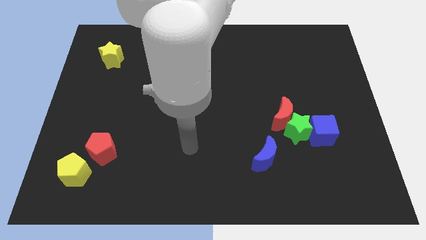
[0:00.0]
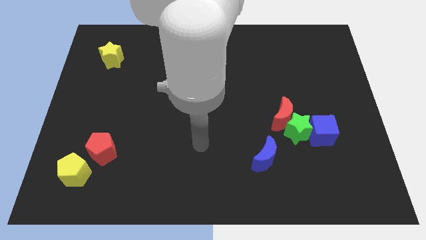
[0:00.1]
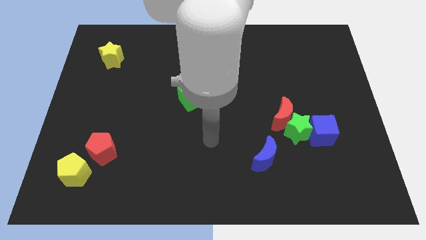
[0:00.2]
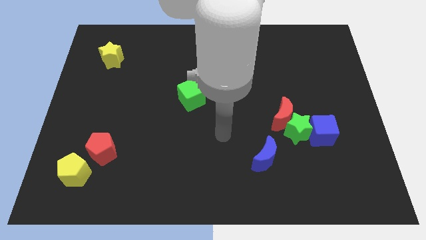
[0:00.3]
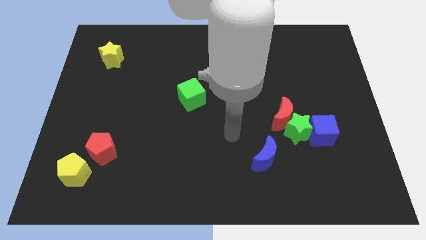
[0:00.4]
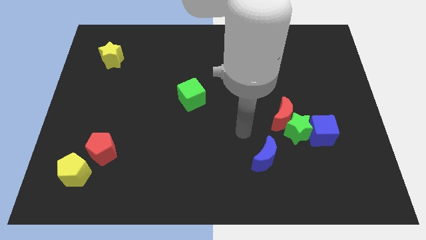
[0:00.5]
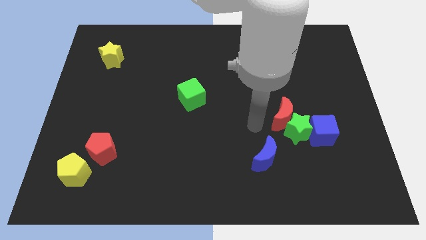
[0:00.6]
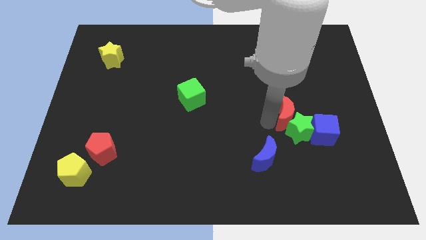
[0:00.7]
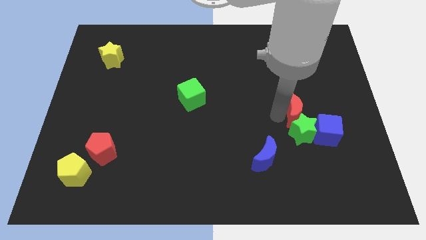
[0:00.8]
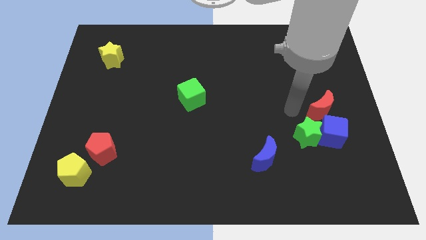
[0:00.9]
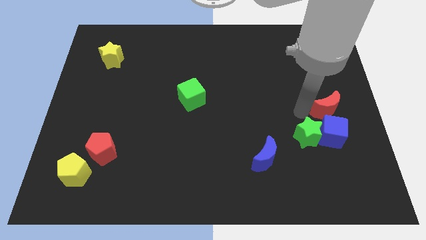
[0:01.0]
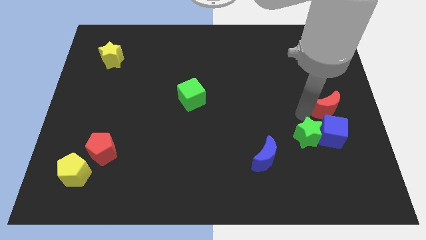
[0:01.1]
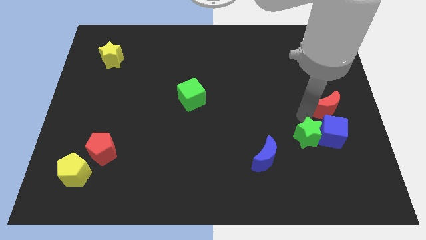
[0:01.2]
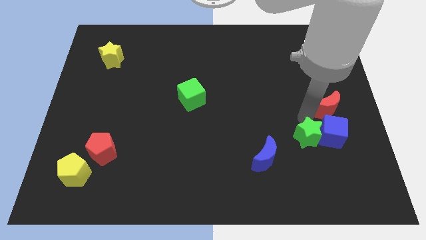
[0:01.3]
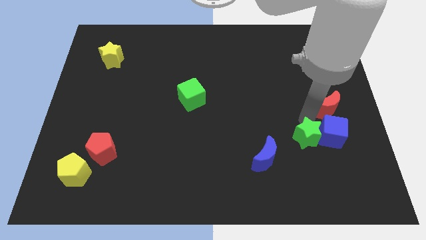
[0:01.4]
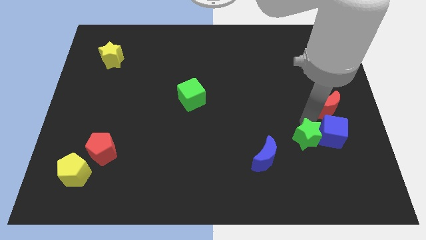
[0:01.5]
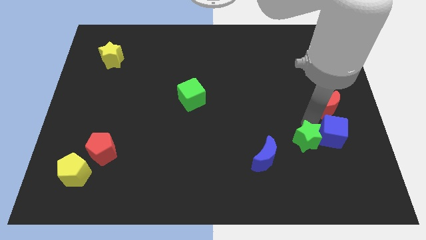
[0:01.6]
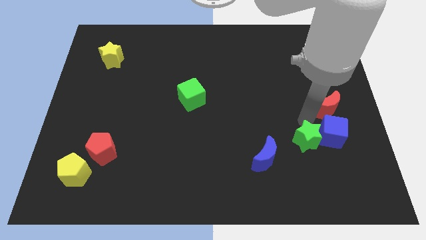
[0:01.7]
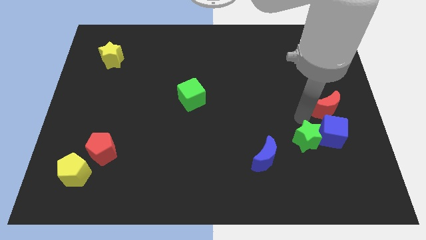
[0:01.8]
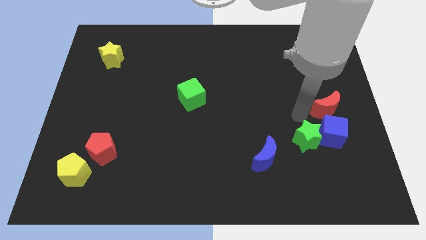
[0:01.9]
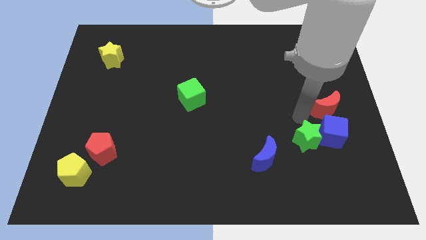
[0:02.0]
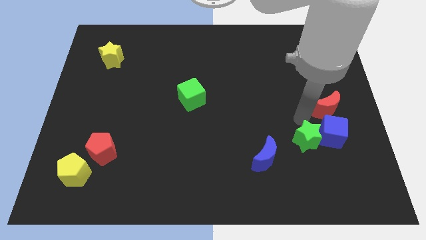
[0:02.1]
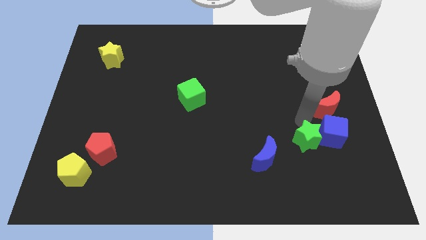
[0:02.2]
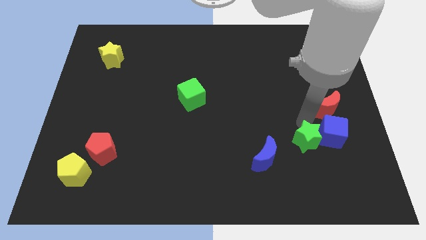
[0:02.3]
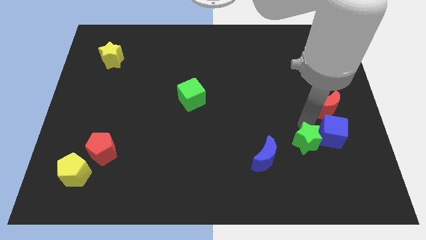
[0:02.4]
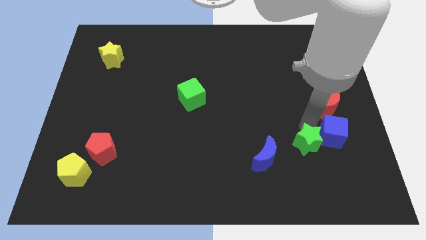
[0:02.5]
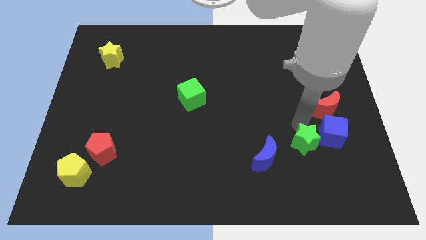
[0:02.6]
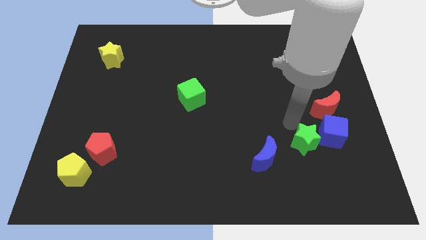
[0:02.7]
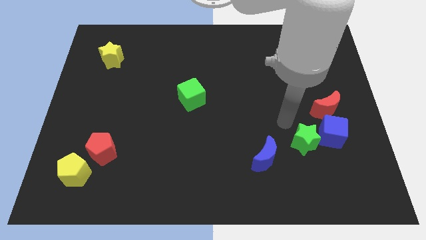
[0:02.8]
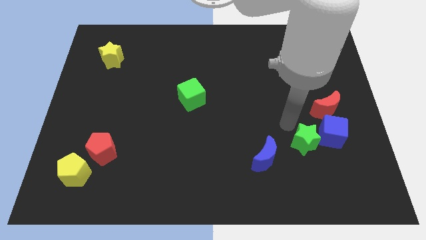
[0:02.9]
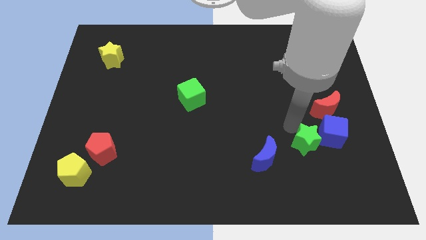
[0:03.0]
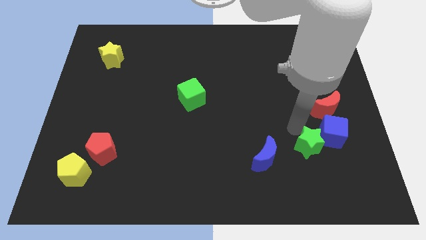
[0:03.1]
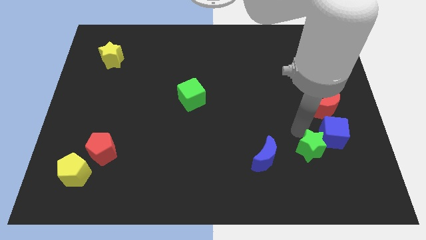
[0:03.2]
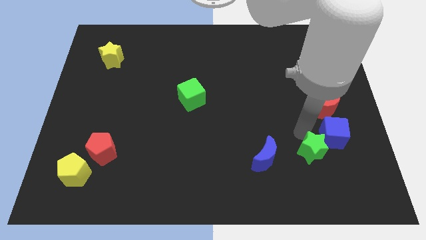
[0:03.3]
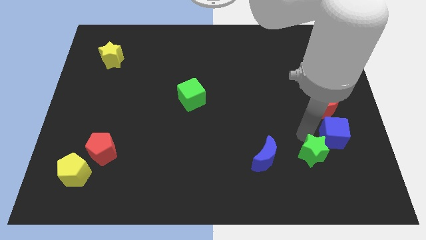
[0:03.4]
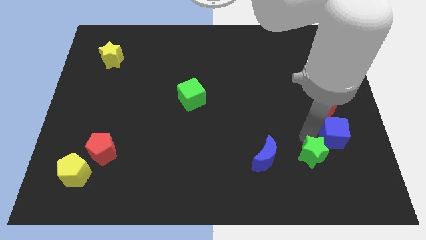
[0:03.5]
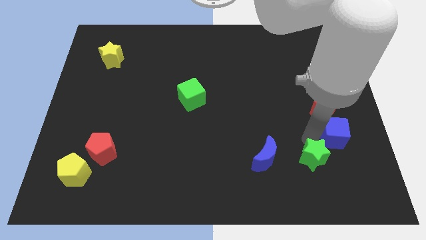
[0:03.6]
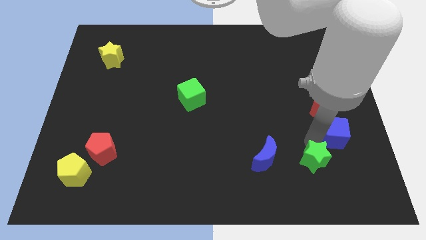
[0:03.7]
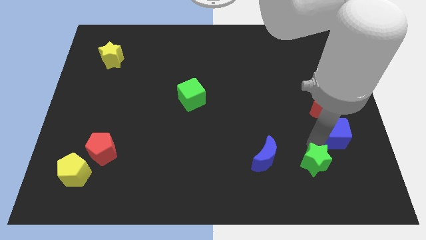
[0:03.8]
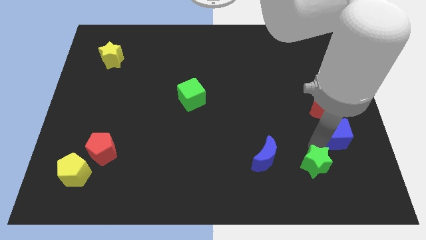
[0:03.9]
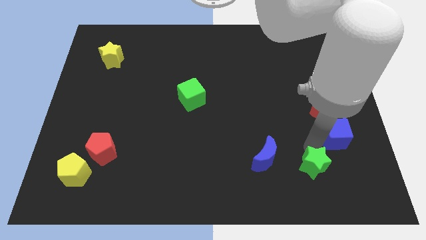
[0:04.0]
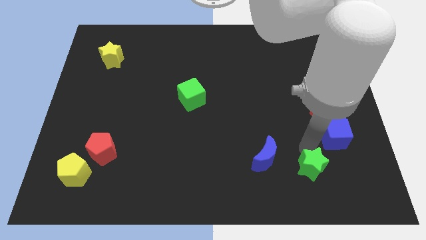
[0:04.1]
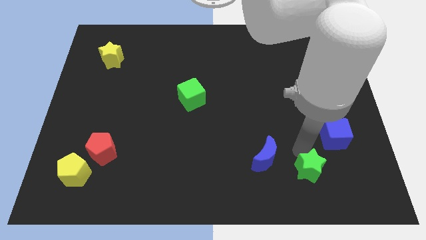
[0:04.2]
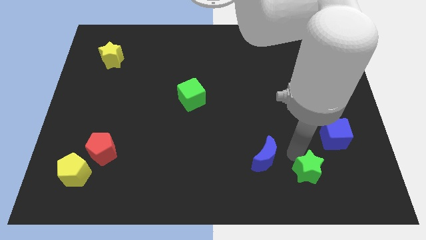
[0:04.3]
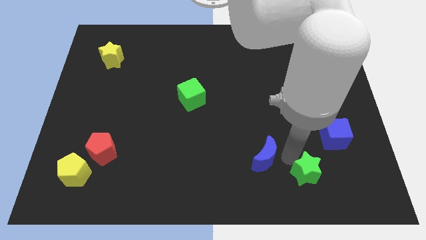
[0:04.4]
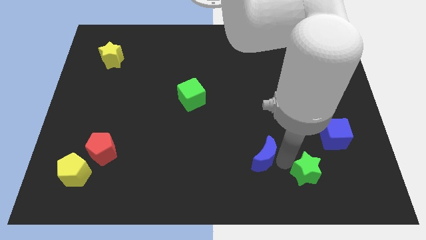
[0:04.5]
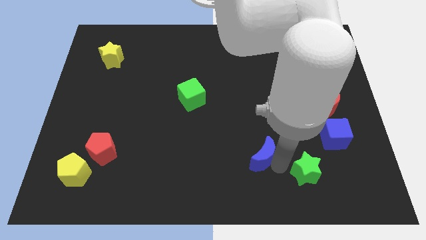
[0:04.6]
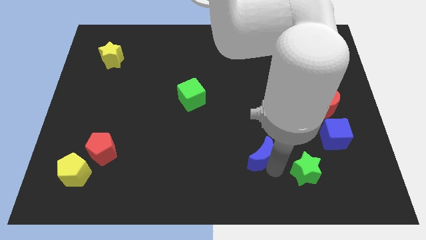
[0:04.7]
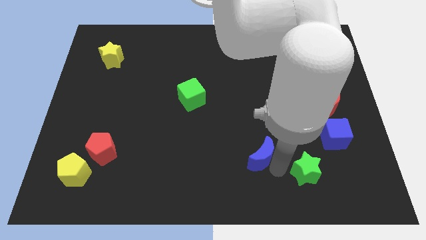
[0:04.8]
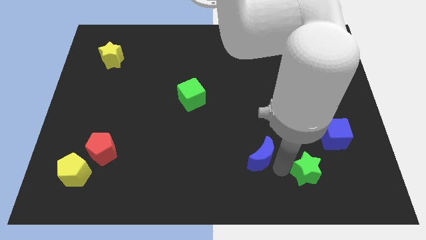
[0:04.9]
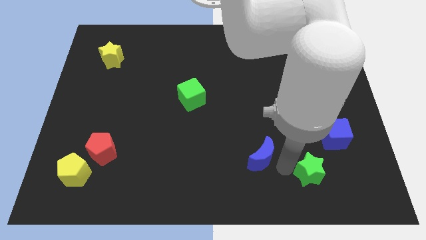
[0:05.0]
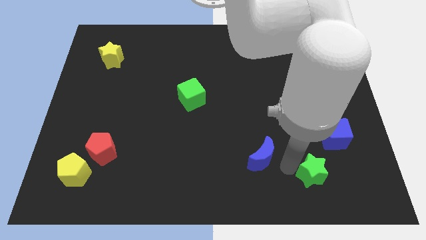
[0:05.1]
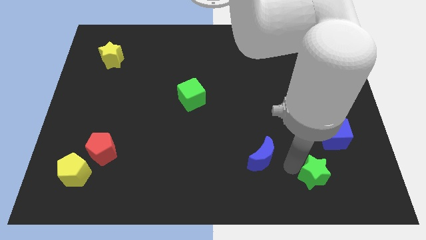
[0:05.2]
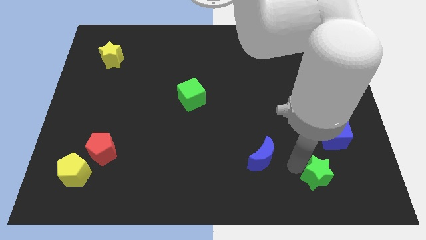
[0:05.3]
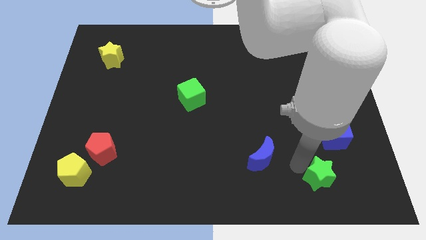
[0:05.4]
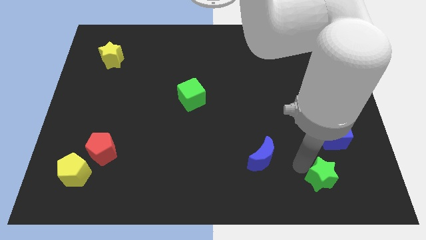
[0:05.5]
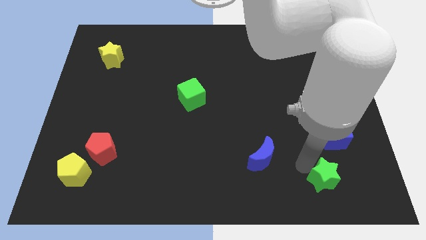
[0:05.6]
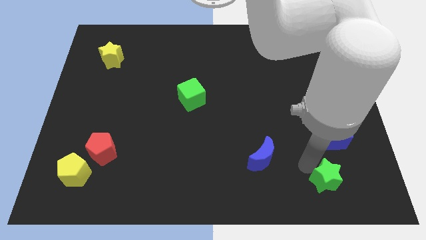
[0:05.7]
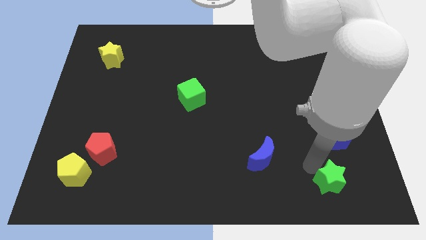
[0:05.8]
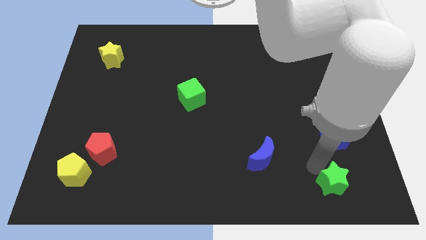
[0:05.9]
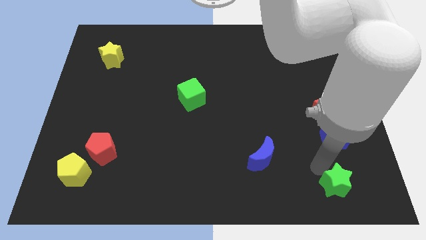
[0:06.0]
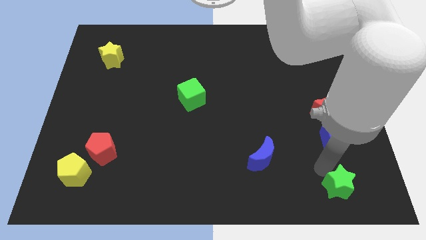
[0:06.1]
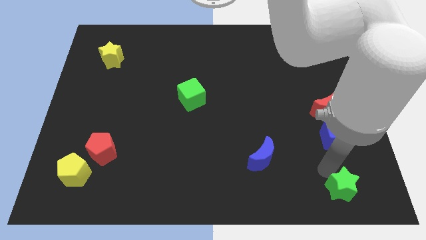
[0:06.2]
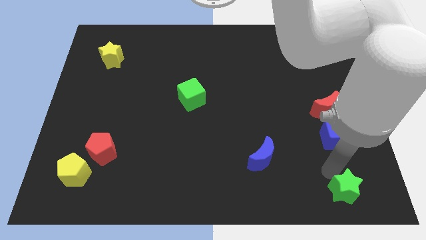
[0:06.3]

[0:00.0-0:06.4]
put the green star to the lower right corner

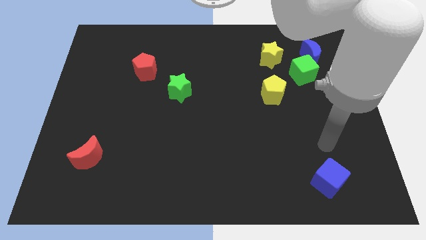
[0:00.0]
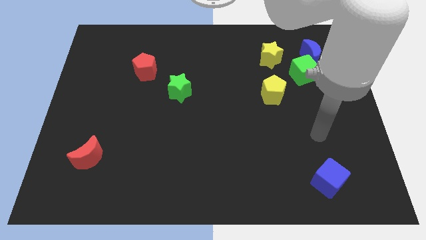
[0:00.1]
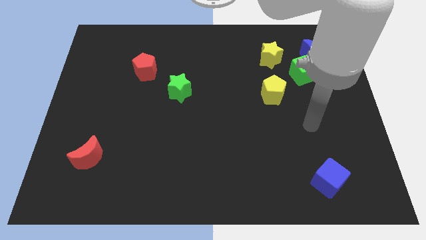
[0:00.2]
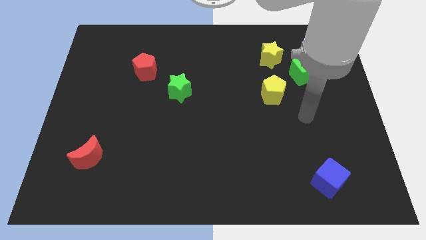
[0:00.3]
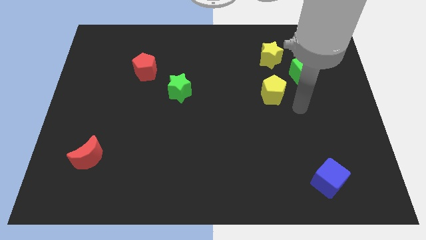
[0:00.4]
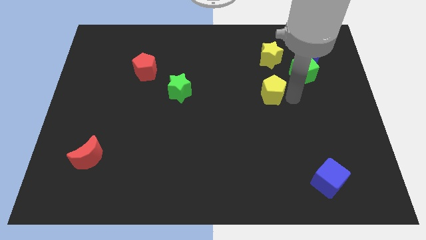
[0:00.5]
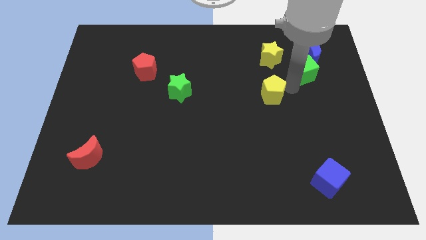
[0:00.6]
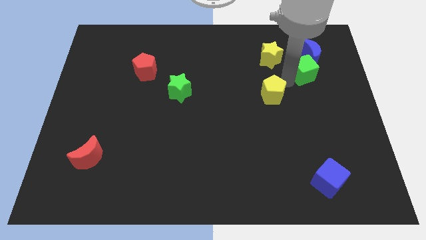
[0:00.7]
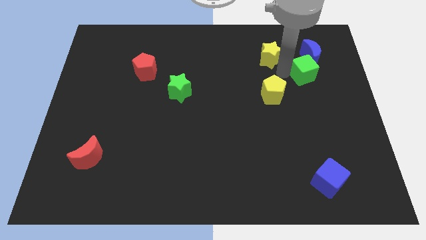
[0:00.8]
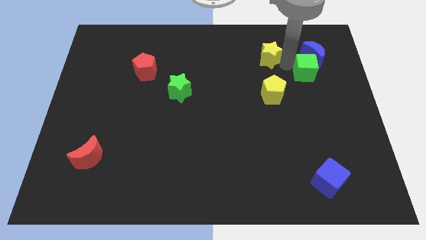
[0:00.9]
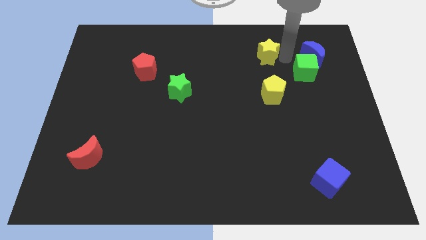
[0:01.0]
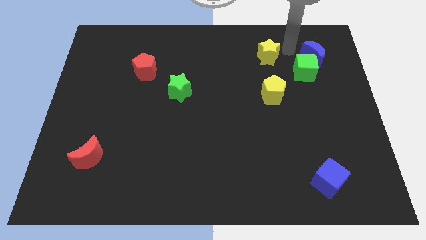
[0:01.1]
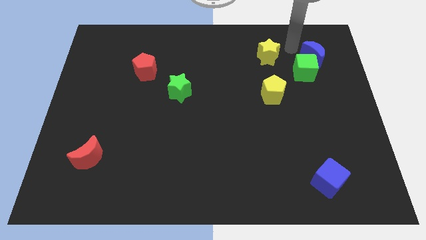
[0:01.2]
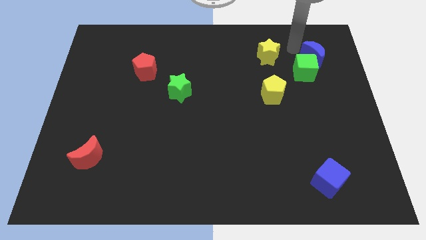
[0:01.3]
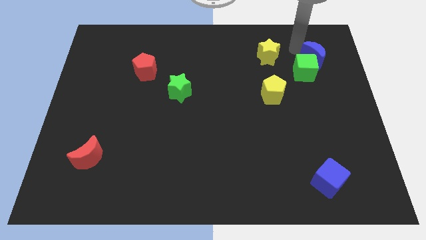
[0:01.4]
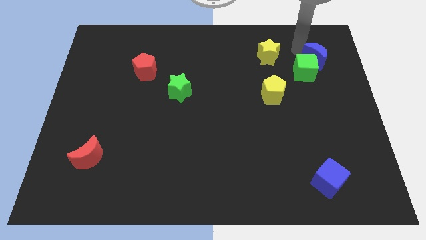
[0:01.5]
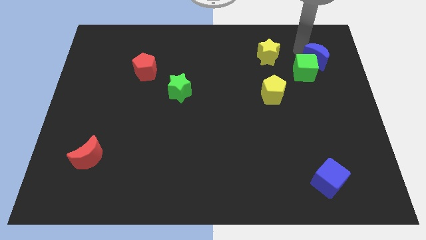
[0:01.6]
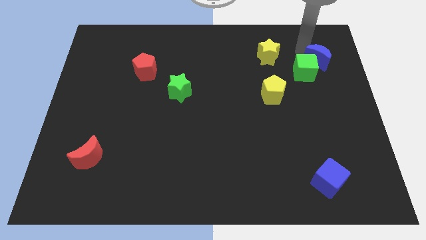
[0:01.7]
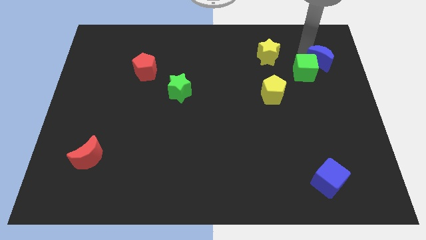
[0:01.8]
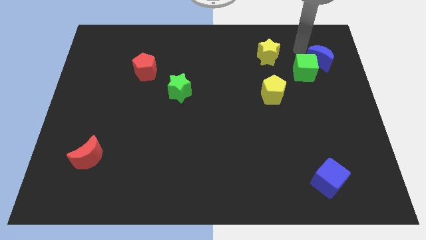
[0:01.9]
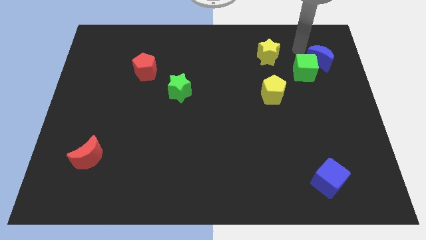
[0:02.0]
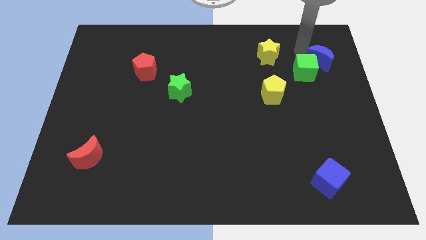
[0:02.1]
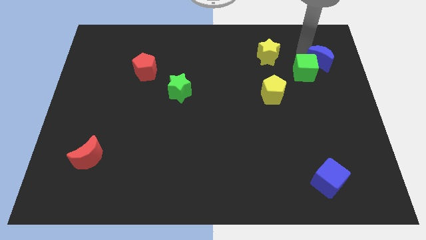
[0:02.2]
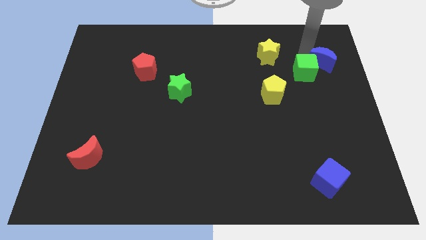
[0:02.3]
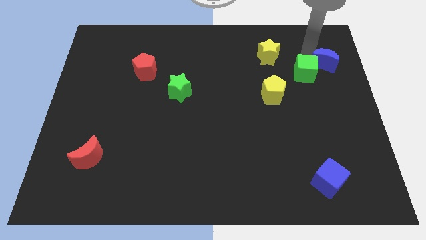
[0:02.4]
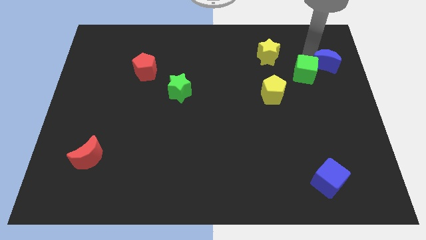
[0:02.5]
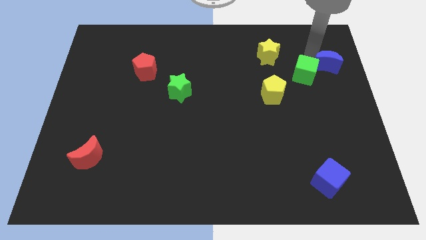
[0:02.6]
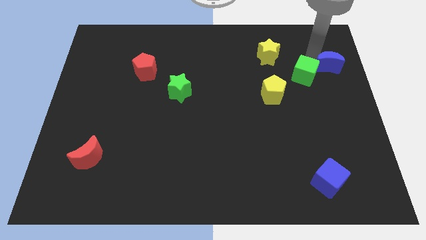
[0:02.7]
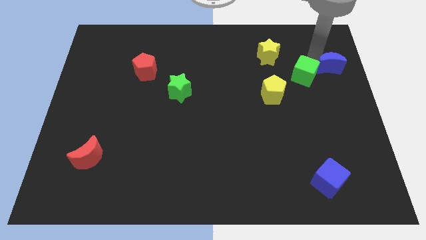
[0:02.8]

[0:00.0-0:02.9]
move the blue moon to the right side of the board
